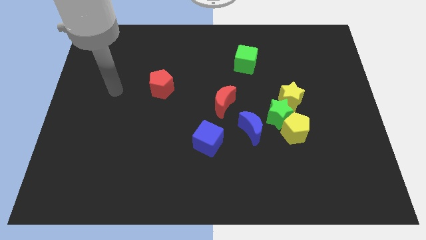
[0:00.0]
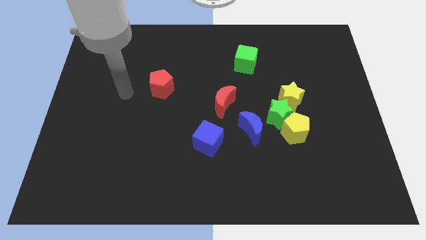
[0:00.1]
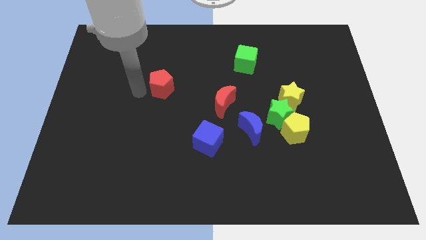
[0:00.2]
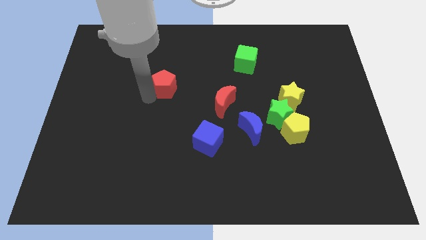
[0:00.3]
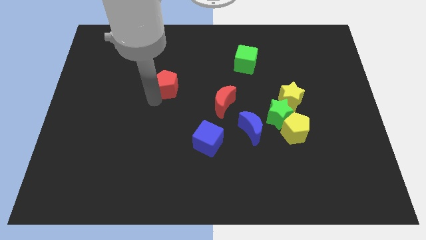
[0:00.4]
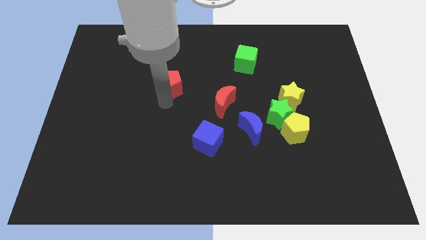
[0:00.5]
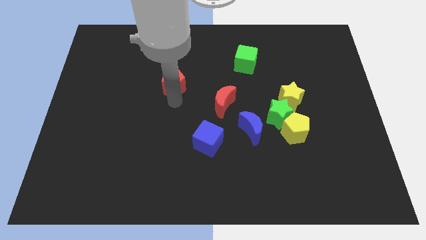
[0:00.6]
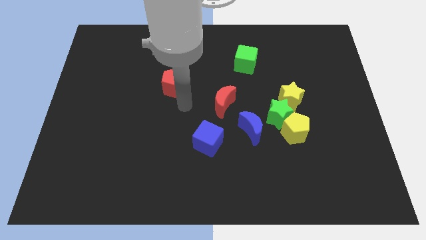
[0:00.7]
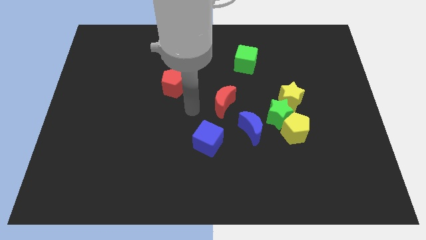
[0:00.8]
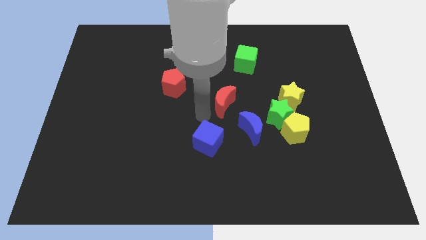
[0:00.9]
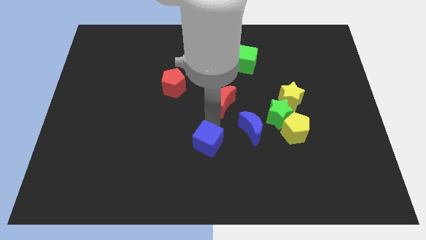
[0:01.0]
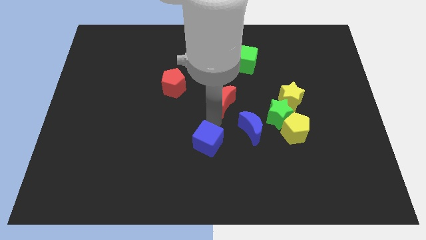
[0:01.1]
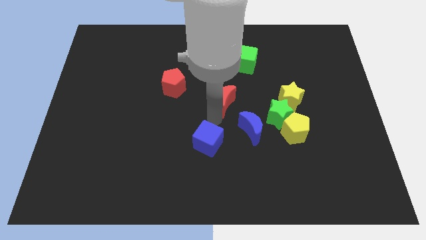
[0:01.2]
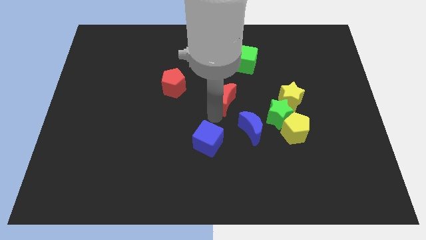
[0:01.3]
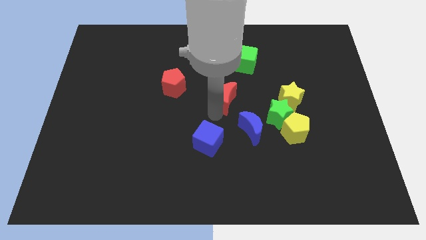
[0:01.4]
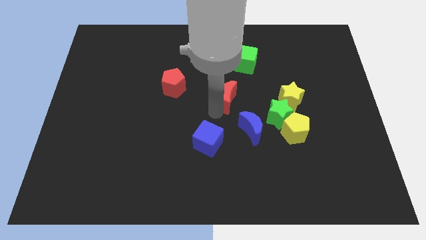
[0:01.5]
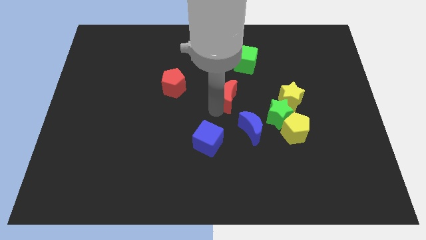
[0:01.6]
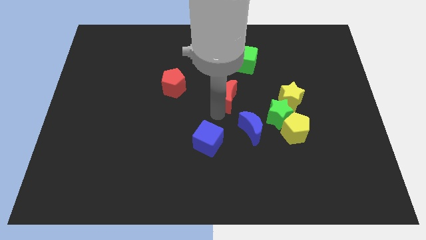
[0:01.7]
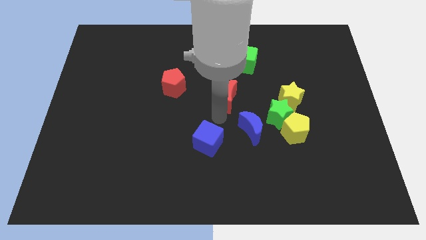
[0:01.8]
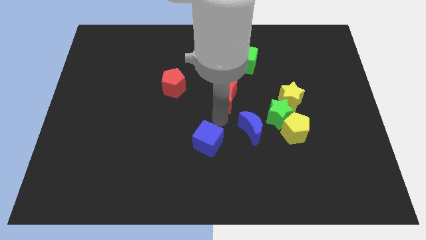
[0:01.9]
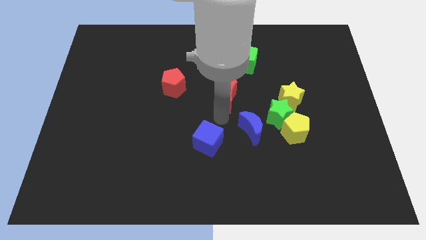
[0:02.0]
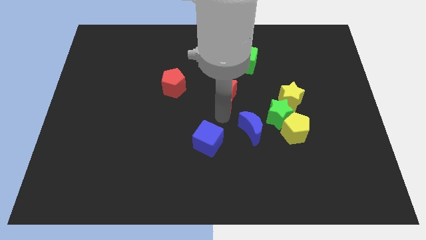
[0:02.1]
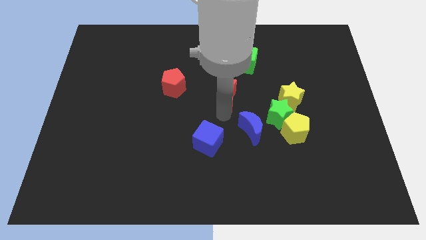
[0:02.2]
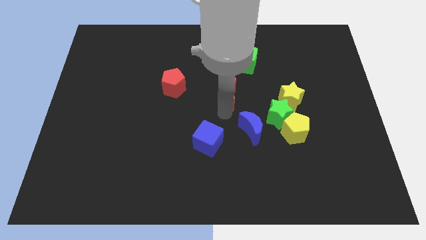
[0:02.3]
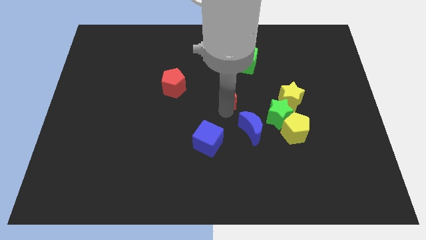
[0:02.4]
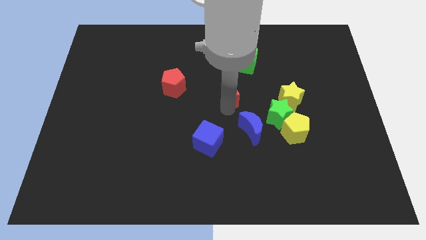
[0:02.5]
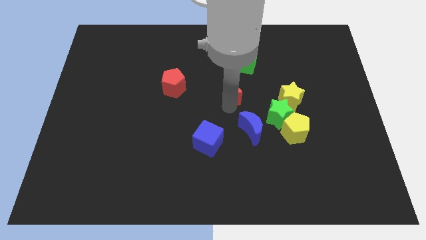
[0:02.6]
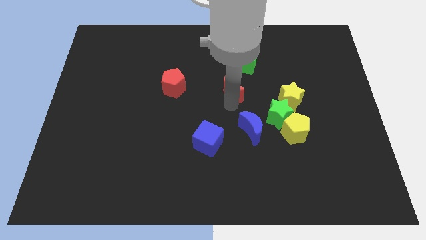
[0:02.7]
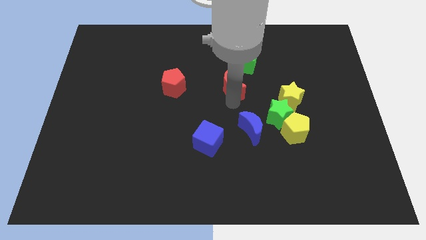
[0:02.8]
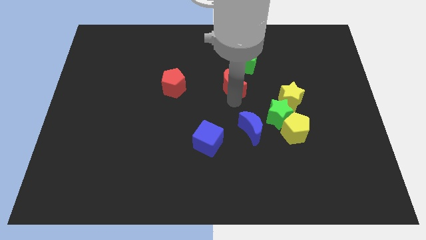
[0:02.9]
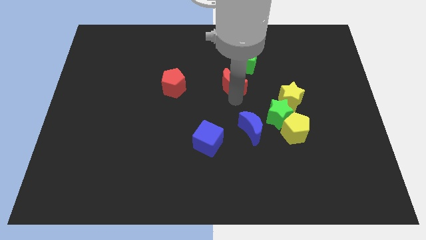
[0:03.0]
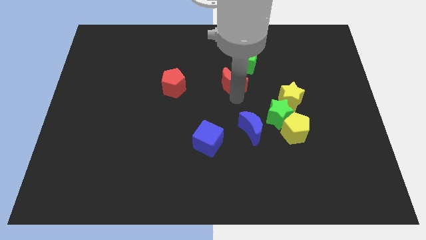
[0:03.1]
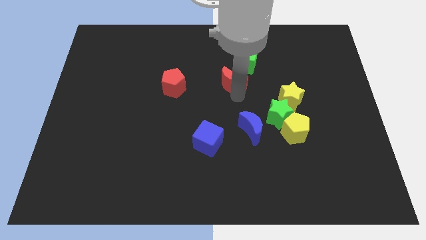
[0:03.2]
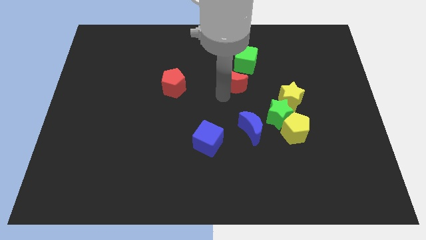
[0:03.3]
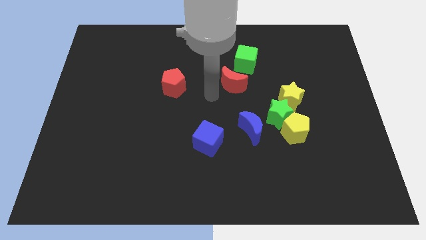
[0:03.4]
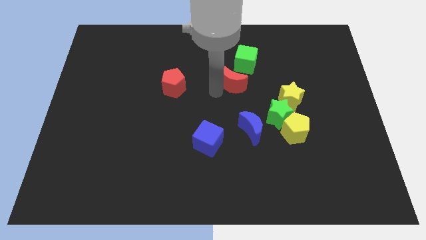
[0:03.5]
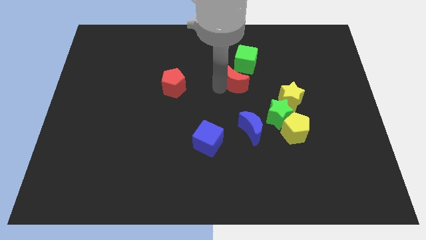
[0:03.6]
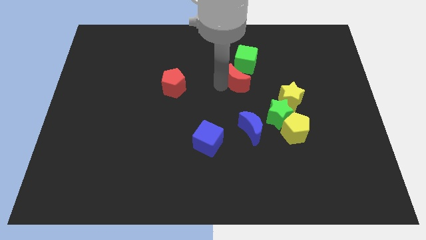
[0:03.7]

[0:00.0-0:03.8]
slide the red moon a bit up and to the right diagonally

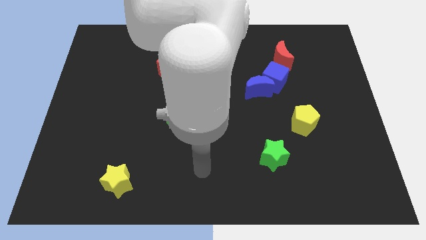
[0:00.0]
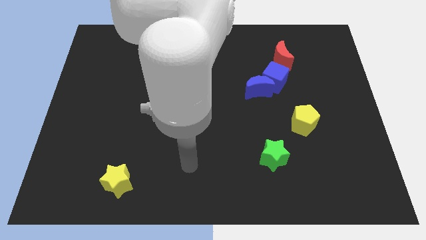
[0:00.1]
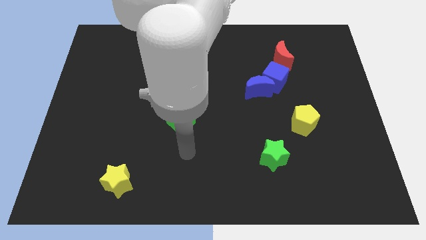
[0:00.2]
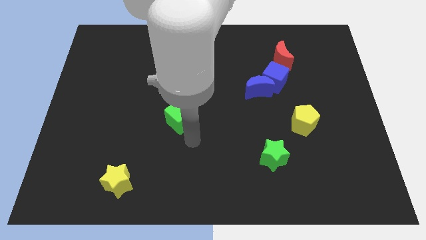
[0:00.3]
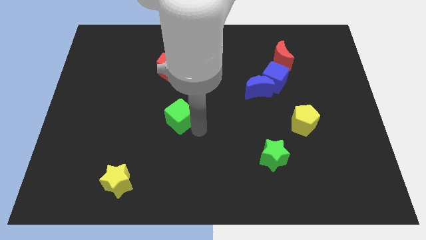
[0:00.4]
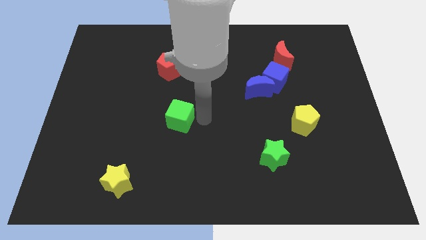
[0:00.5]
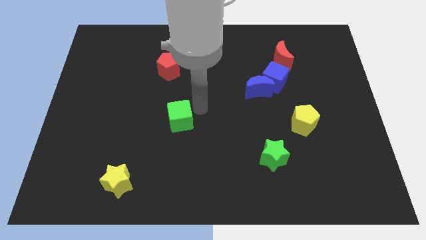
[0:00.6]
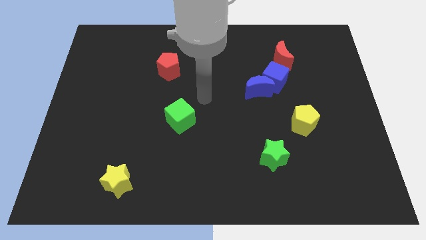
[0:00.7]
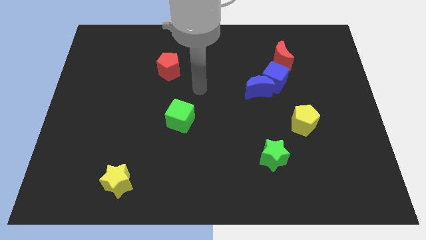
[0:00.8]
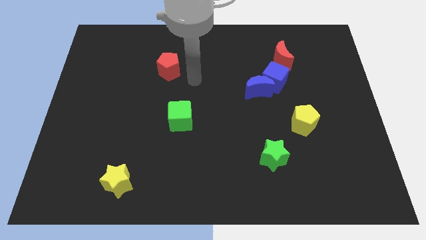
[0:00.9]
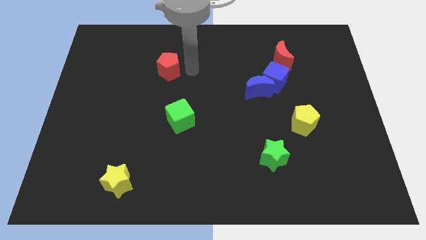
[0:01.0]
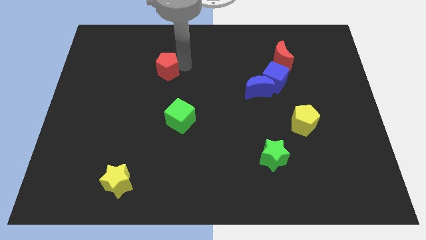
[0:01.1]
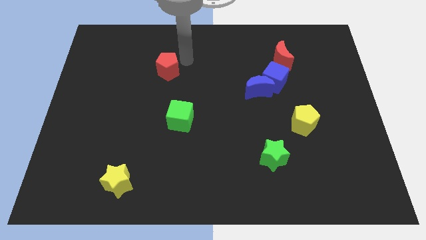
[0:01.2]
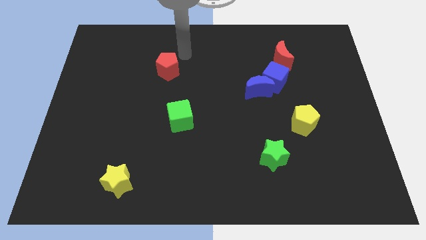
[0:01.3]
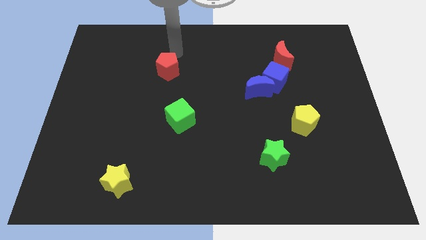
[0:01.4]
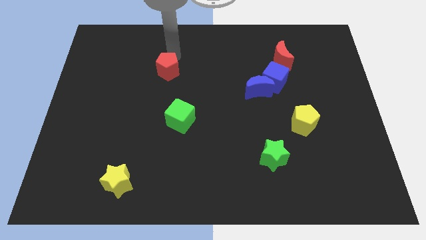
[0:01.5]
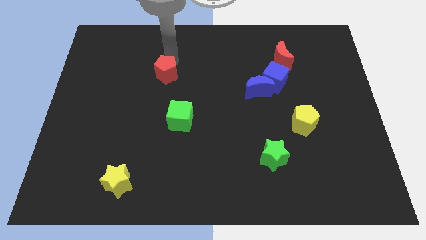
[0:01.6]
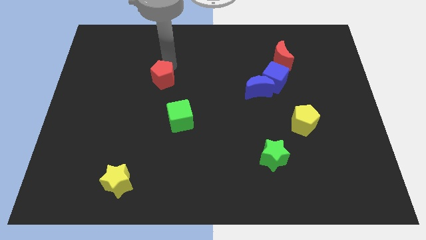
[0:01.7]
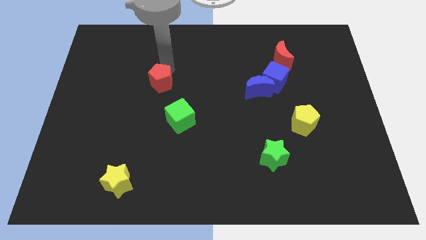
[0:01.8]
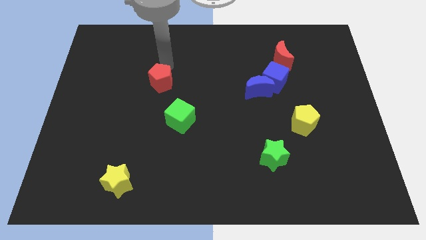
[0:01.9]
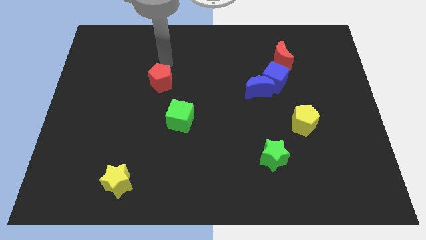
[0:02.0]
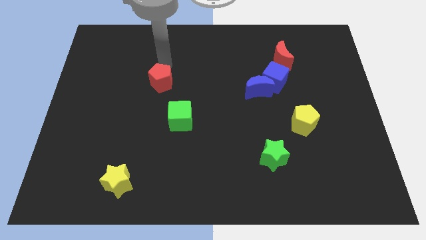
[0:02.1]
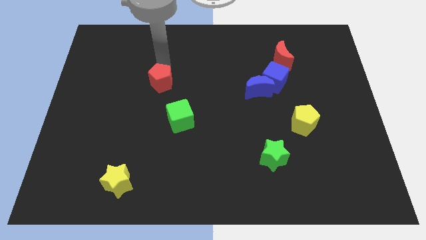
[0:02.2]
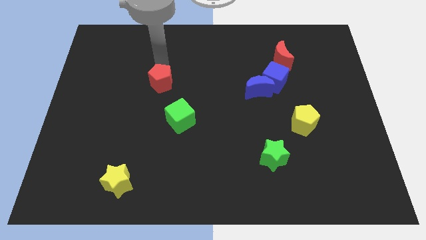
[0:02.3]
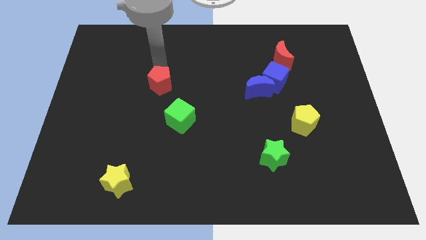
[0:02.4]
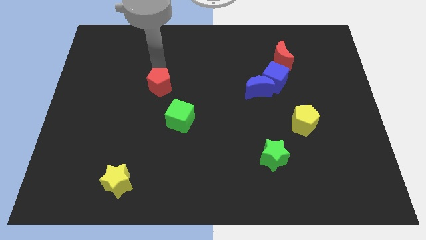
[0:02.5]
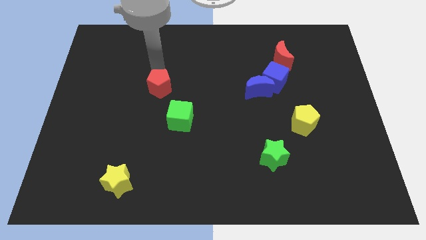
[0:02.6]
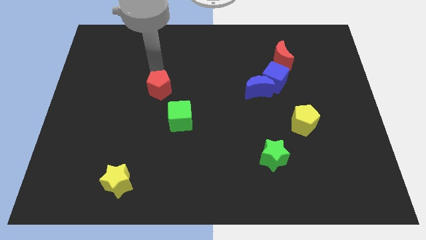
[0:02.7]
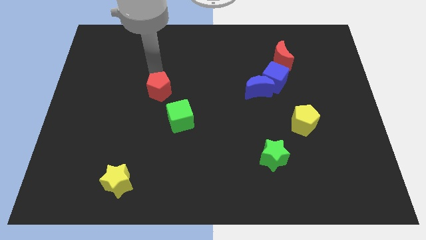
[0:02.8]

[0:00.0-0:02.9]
move the red pentagon slightly downwards

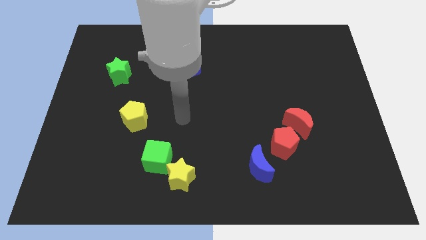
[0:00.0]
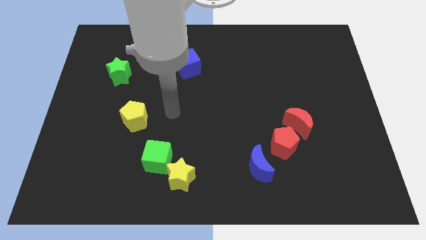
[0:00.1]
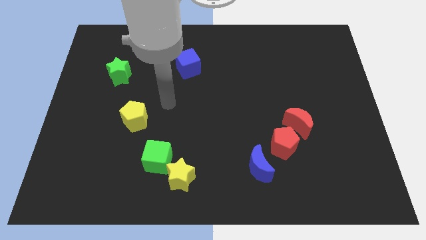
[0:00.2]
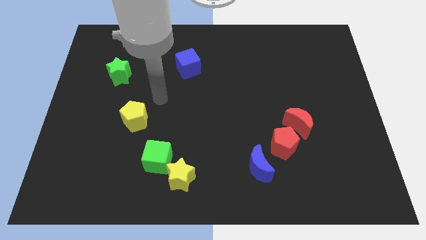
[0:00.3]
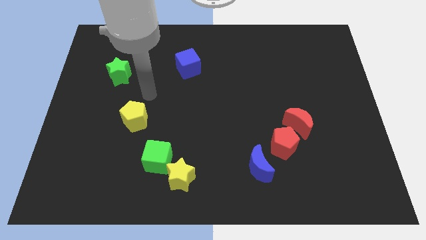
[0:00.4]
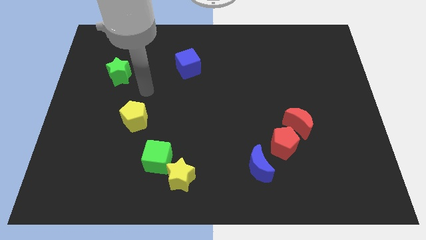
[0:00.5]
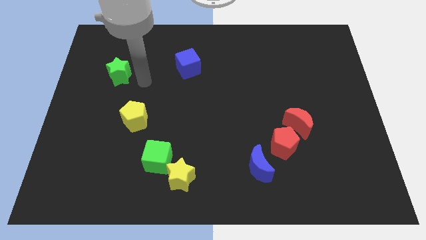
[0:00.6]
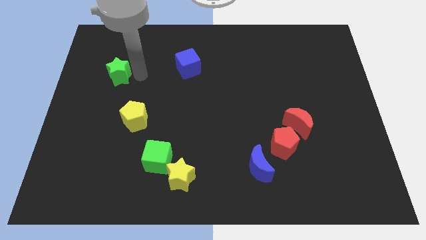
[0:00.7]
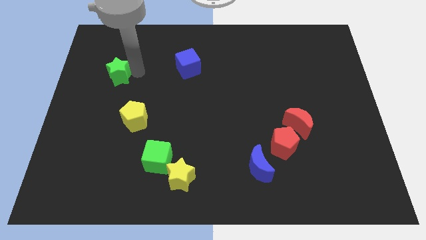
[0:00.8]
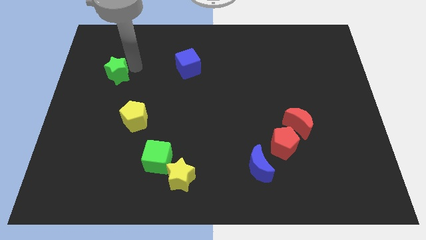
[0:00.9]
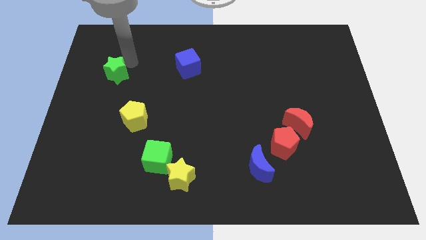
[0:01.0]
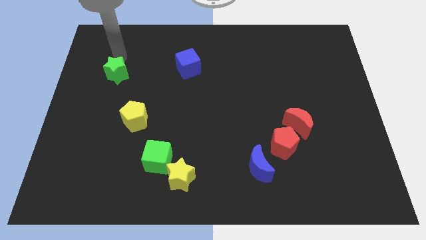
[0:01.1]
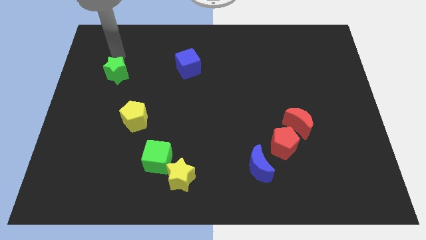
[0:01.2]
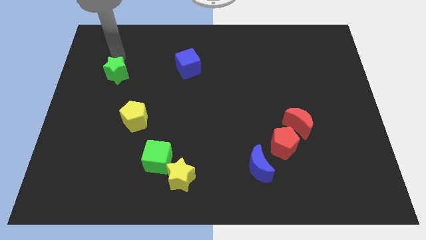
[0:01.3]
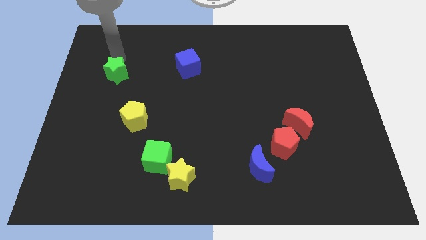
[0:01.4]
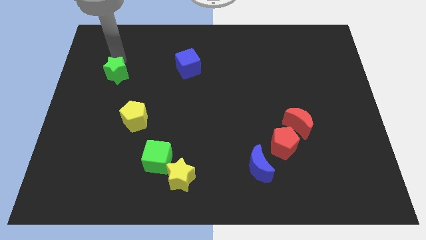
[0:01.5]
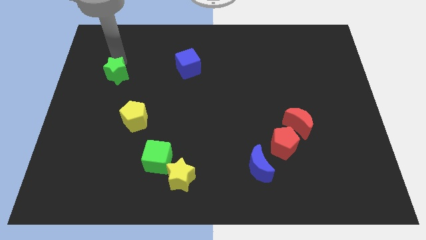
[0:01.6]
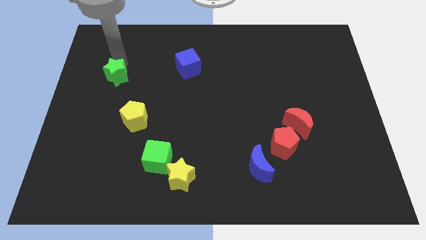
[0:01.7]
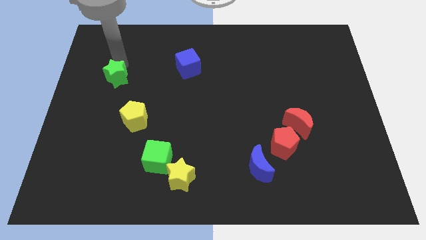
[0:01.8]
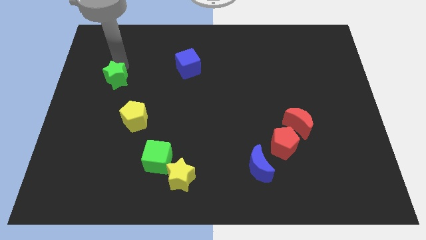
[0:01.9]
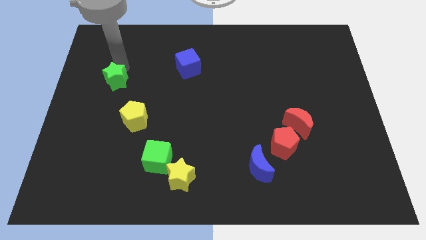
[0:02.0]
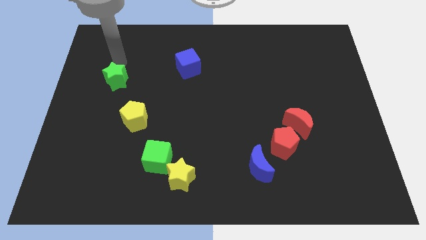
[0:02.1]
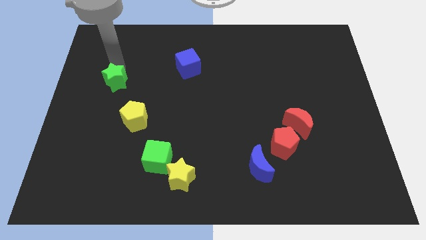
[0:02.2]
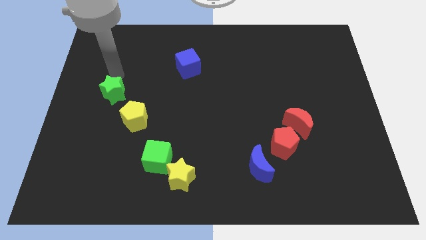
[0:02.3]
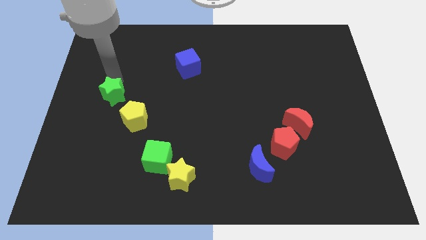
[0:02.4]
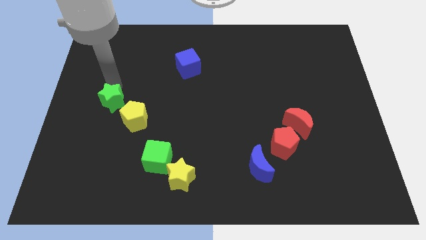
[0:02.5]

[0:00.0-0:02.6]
move the green star a bit downwards
